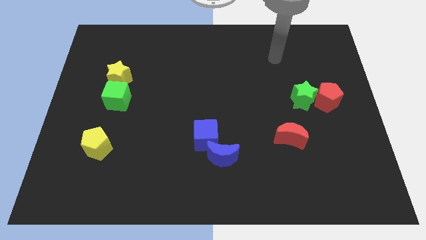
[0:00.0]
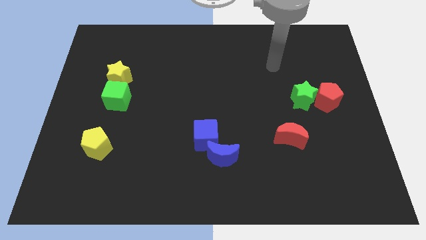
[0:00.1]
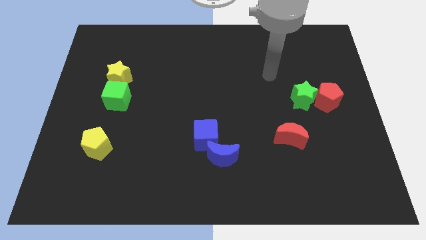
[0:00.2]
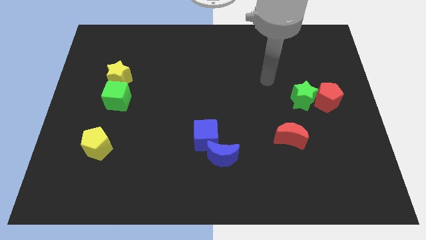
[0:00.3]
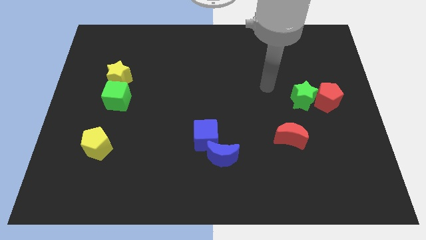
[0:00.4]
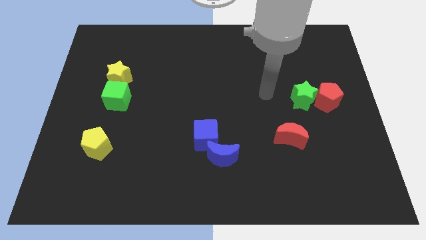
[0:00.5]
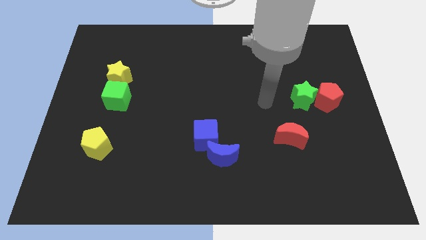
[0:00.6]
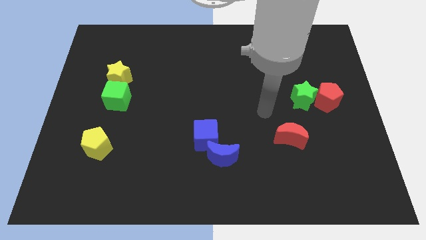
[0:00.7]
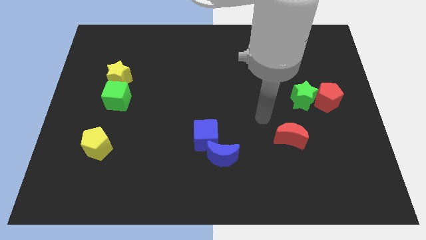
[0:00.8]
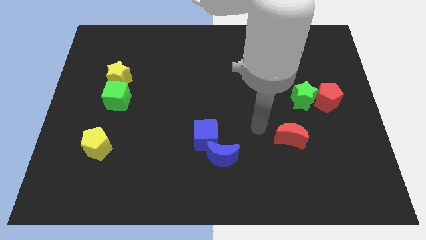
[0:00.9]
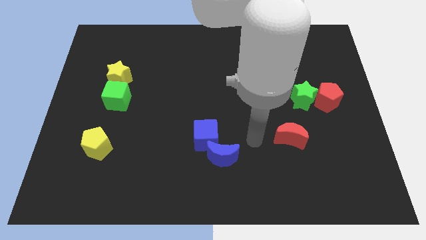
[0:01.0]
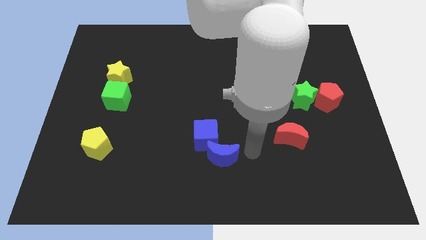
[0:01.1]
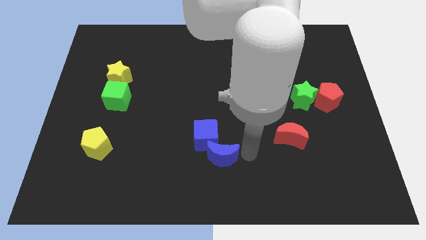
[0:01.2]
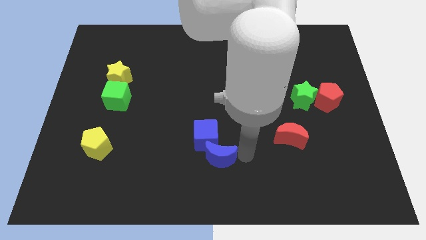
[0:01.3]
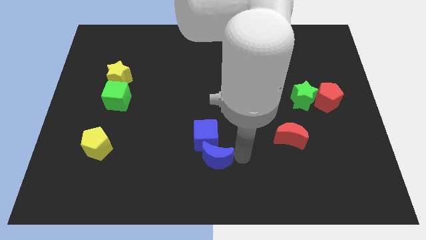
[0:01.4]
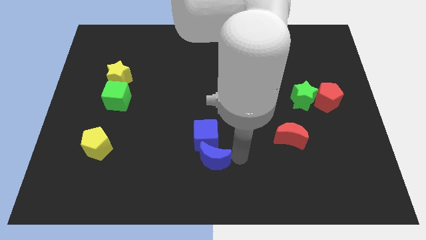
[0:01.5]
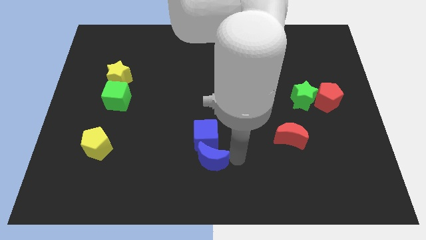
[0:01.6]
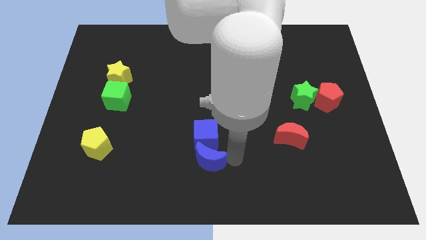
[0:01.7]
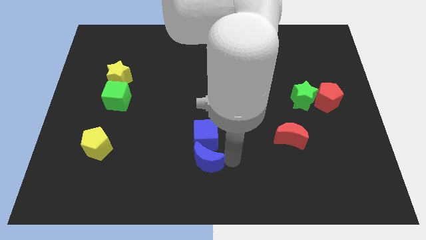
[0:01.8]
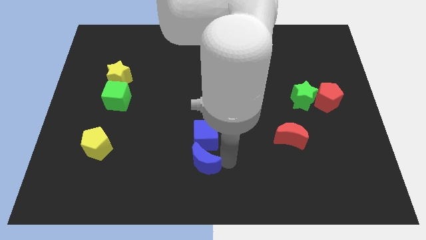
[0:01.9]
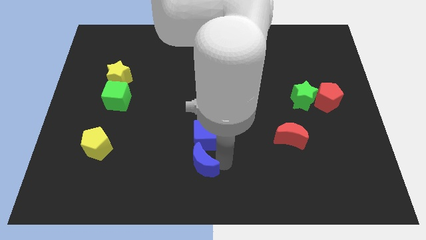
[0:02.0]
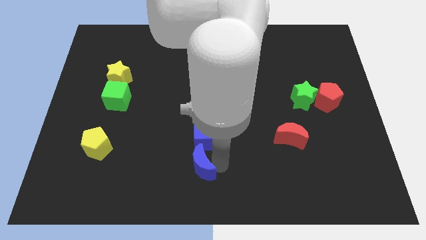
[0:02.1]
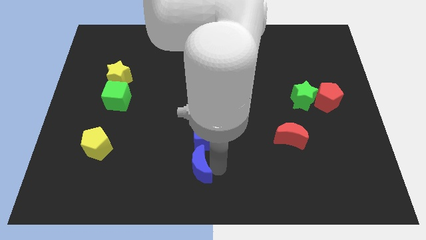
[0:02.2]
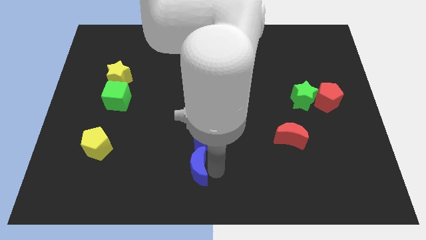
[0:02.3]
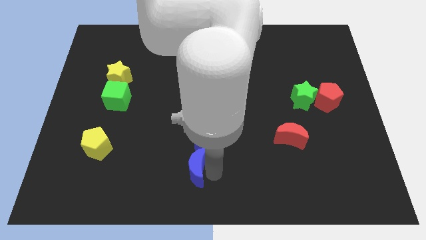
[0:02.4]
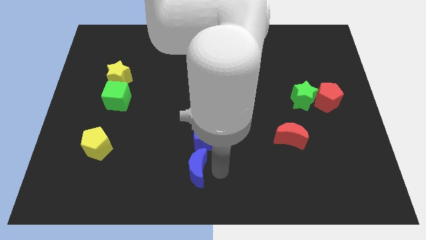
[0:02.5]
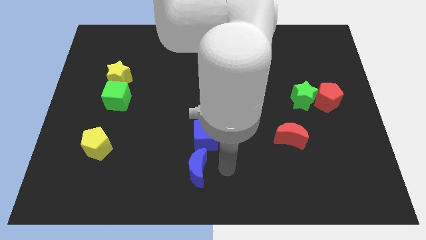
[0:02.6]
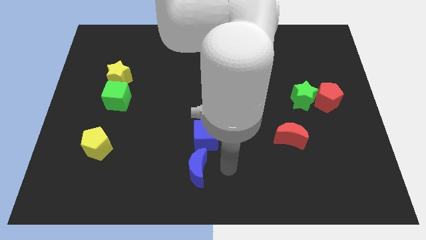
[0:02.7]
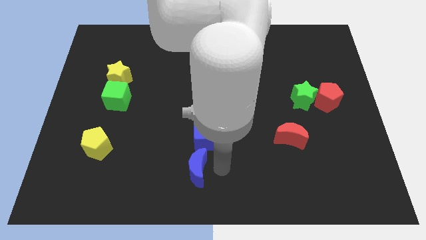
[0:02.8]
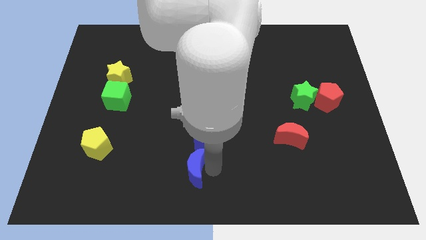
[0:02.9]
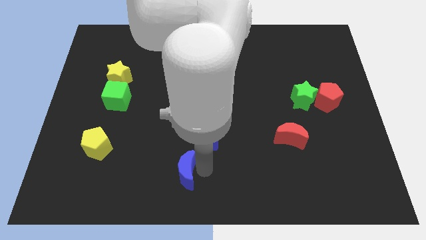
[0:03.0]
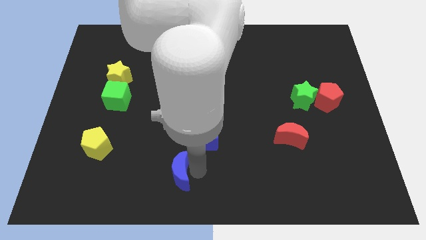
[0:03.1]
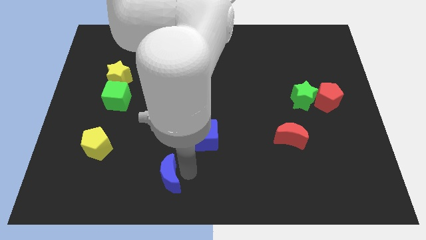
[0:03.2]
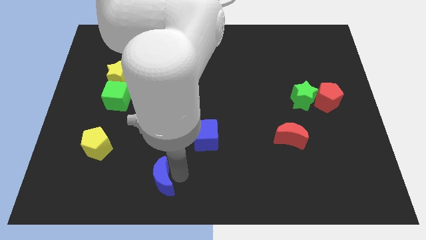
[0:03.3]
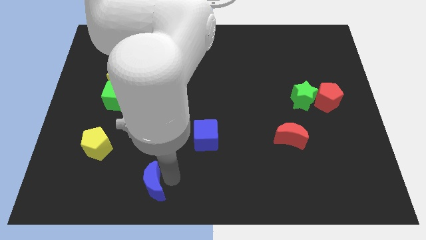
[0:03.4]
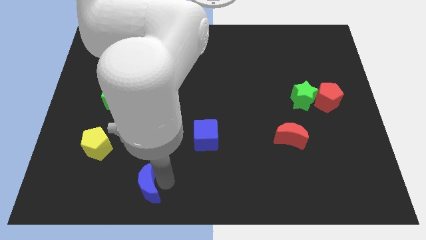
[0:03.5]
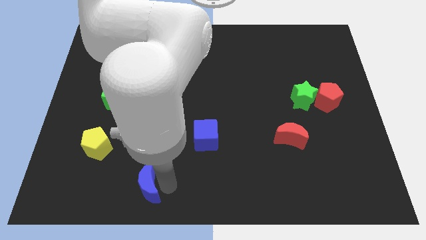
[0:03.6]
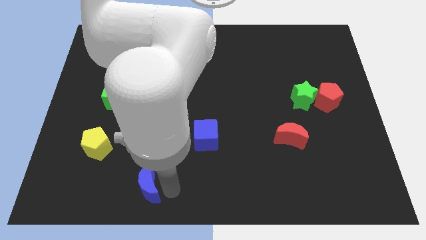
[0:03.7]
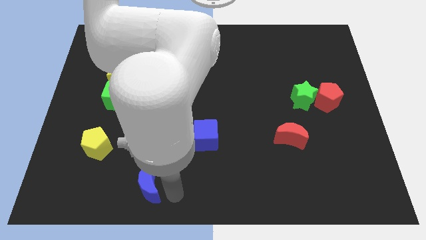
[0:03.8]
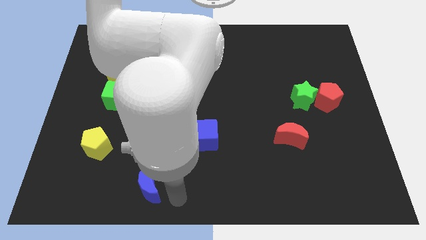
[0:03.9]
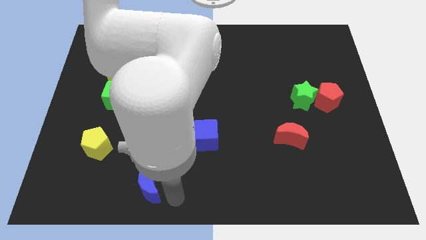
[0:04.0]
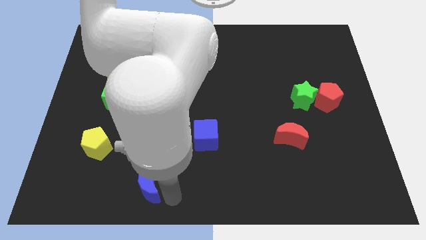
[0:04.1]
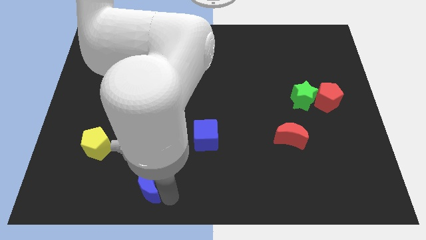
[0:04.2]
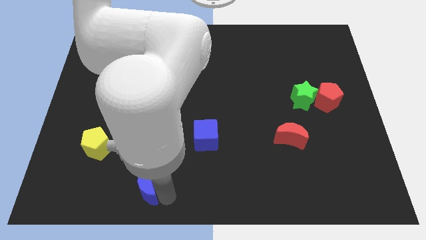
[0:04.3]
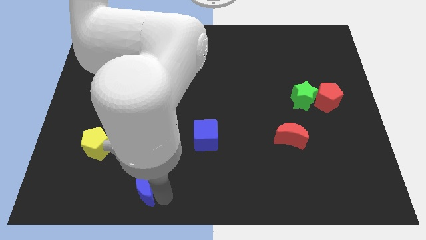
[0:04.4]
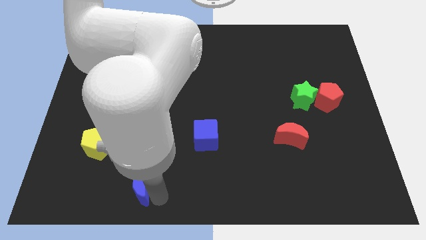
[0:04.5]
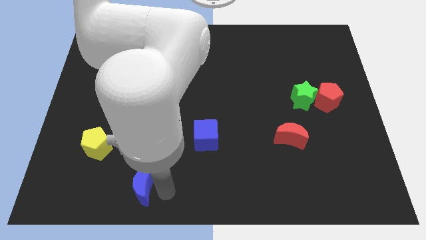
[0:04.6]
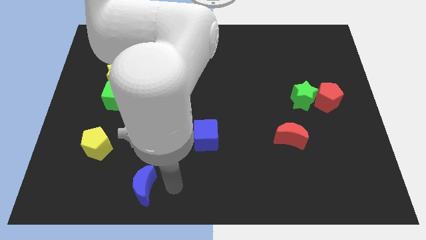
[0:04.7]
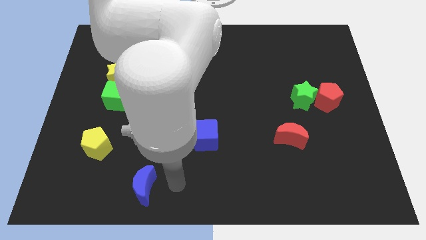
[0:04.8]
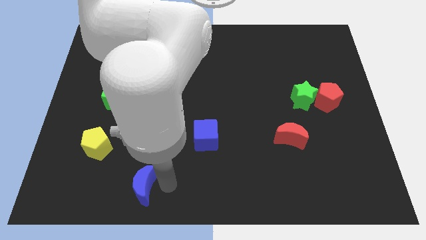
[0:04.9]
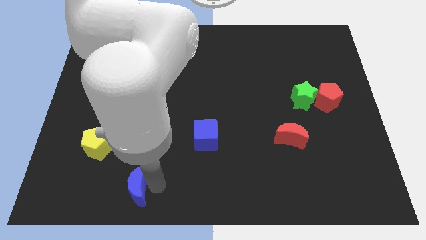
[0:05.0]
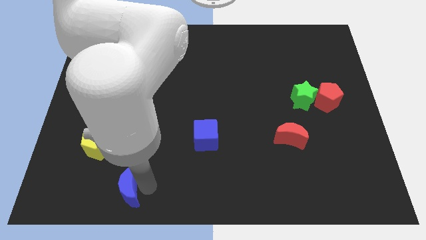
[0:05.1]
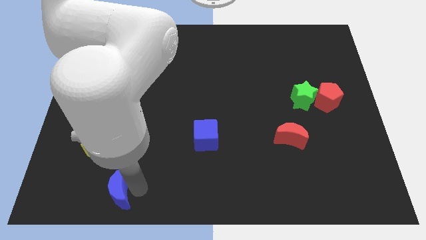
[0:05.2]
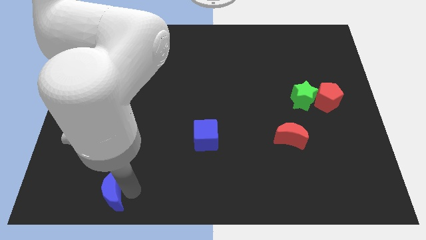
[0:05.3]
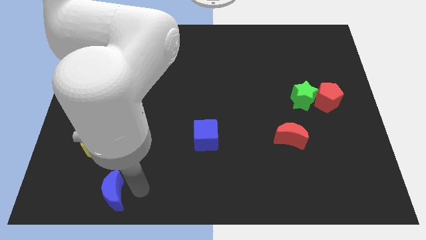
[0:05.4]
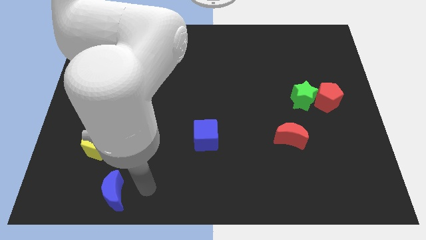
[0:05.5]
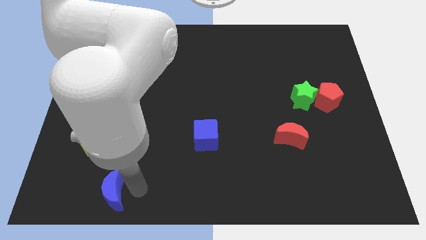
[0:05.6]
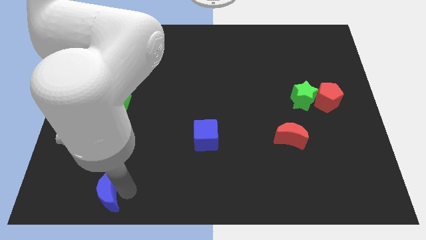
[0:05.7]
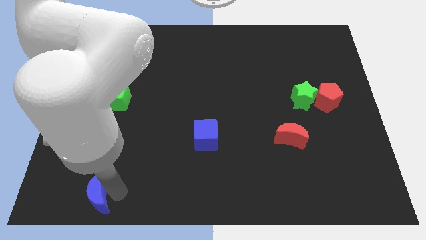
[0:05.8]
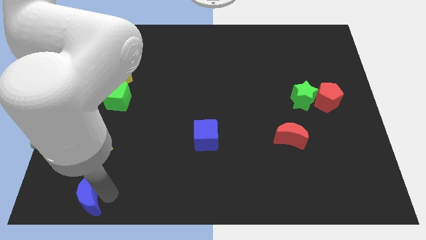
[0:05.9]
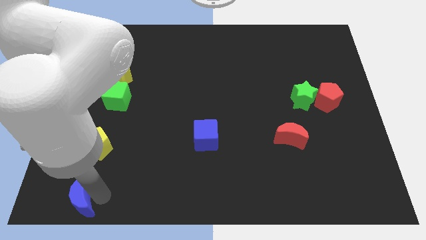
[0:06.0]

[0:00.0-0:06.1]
move the blue moon to the bottom left of the board
